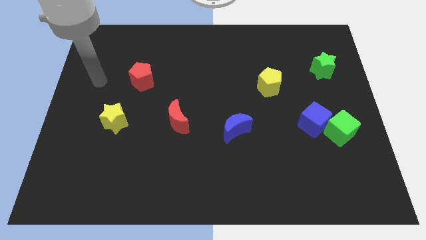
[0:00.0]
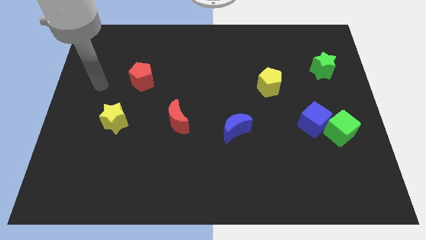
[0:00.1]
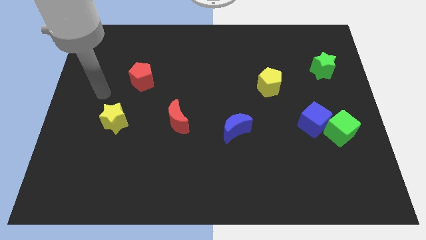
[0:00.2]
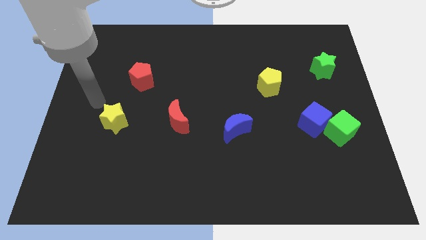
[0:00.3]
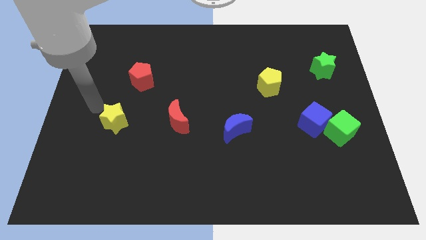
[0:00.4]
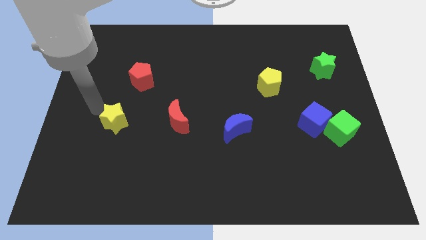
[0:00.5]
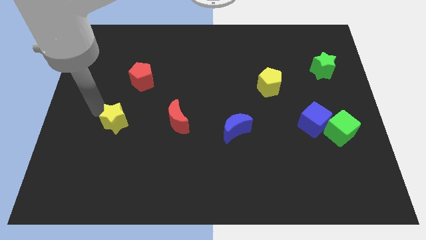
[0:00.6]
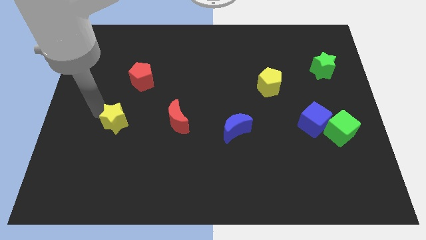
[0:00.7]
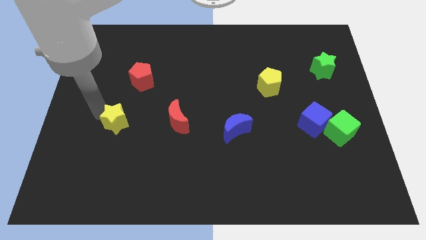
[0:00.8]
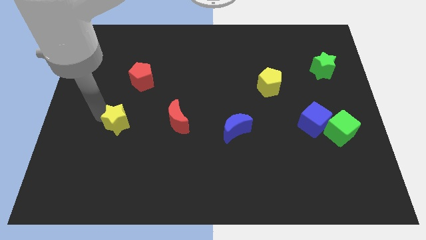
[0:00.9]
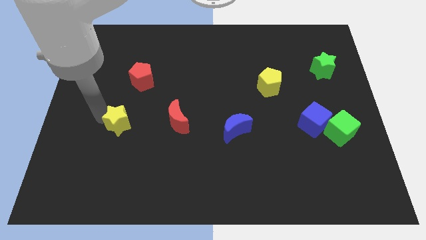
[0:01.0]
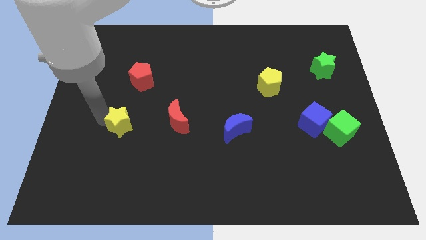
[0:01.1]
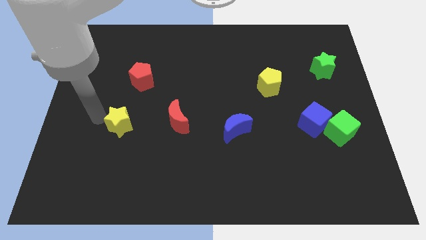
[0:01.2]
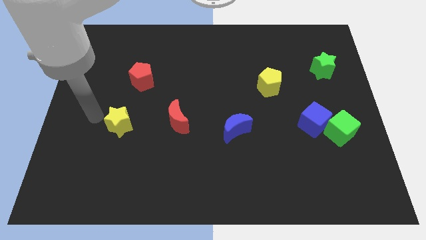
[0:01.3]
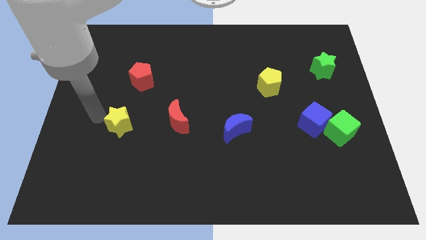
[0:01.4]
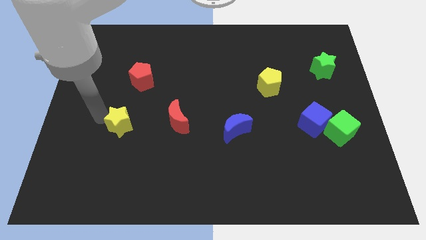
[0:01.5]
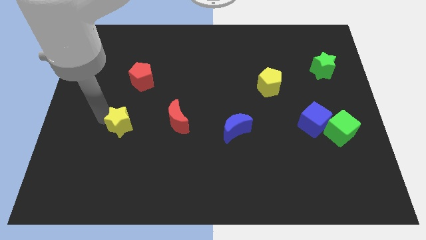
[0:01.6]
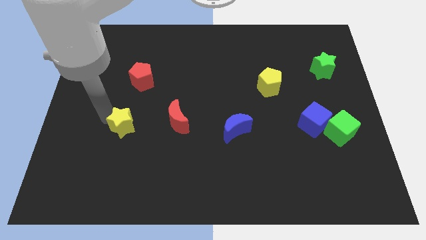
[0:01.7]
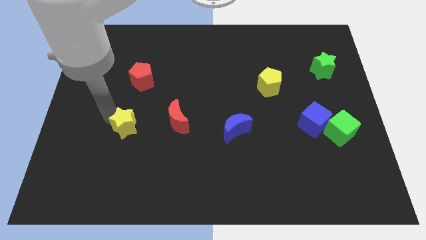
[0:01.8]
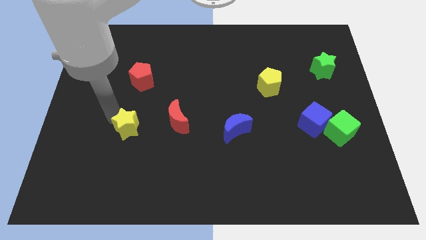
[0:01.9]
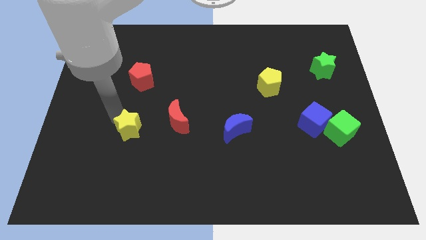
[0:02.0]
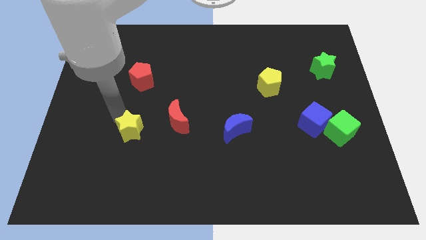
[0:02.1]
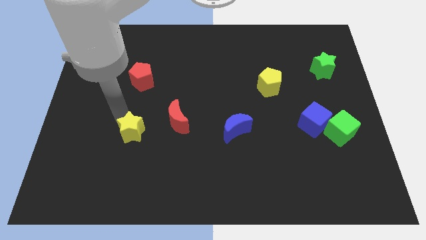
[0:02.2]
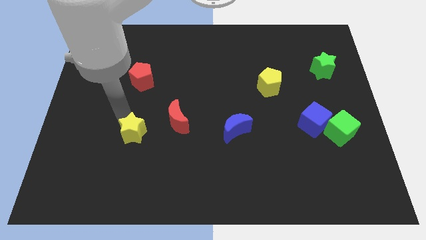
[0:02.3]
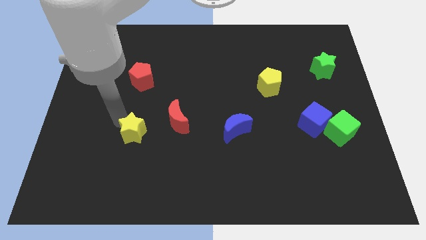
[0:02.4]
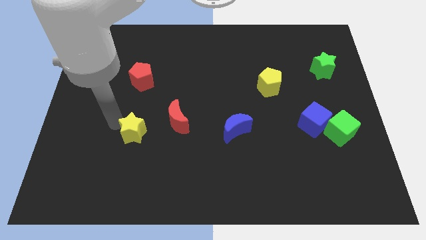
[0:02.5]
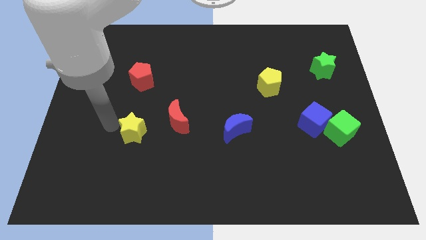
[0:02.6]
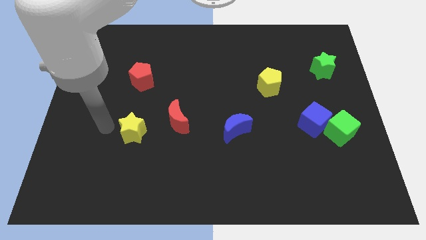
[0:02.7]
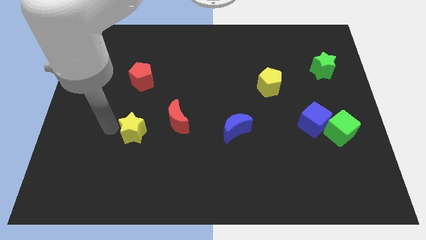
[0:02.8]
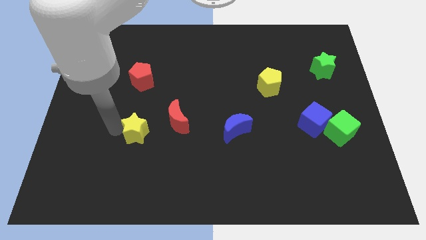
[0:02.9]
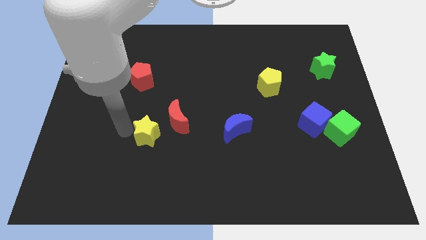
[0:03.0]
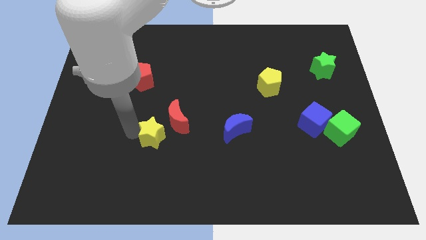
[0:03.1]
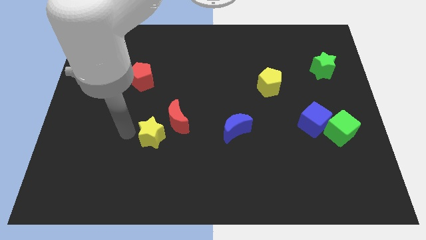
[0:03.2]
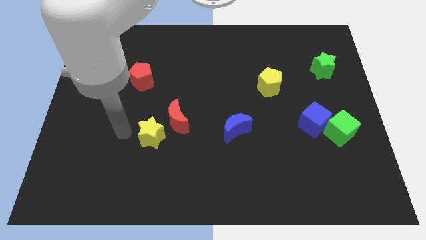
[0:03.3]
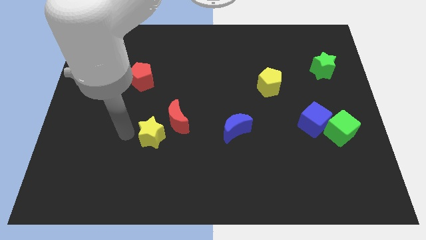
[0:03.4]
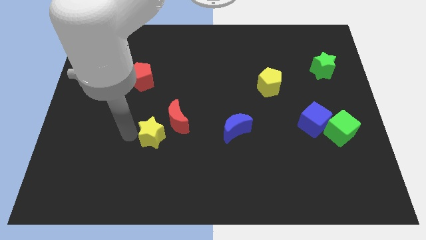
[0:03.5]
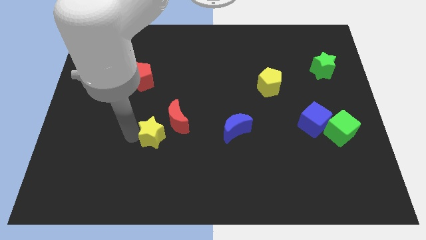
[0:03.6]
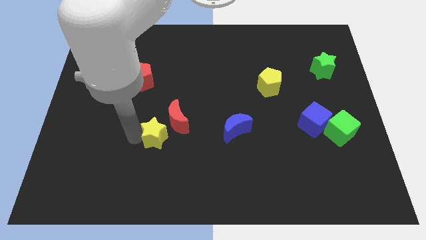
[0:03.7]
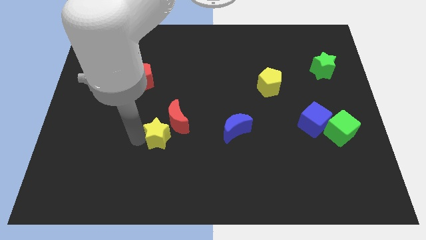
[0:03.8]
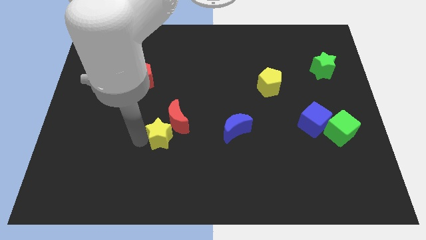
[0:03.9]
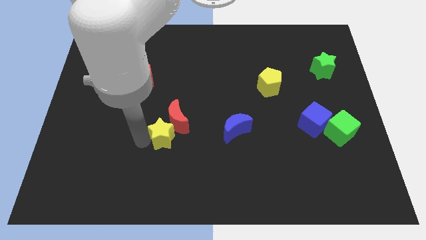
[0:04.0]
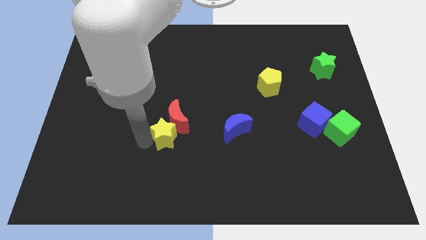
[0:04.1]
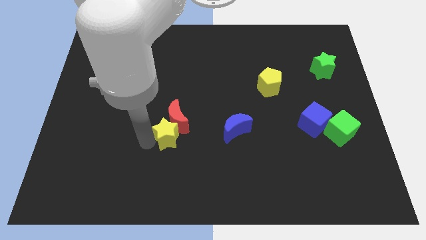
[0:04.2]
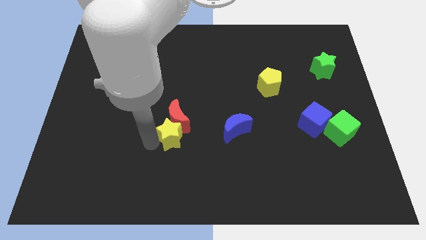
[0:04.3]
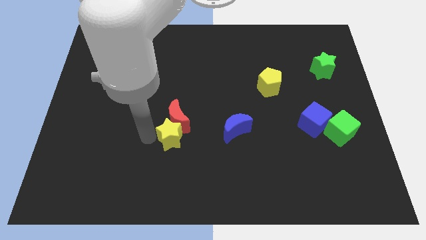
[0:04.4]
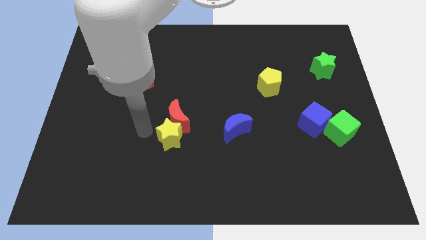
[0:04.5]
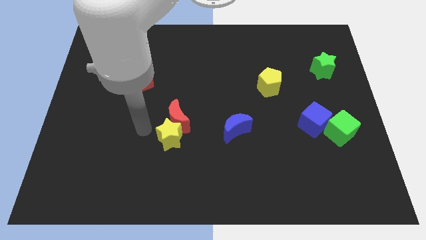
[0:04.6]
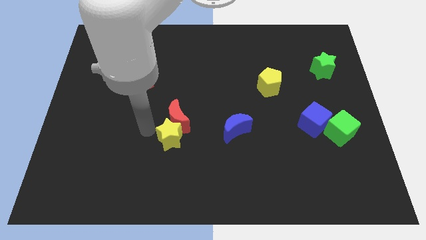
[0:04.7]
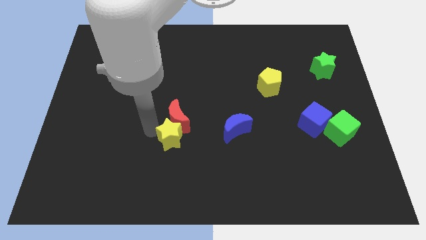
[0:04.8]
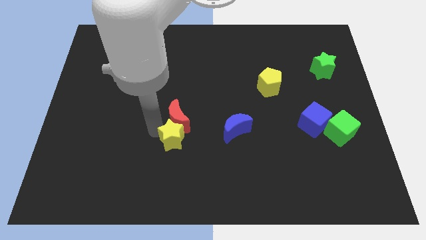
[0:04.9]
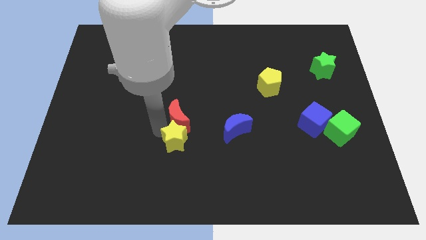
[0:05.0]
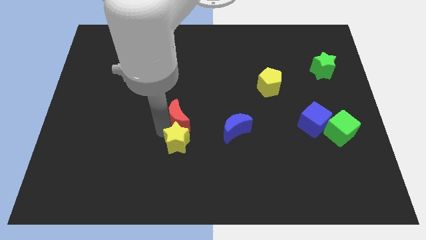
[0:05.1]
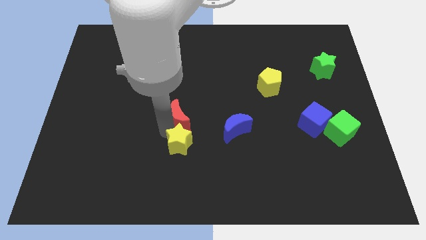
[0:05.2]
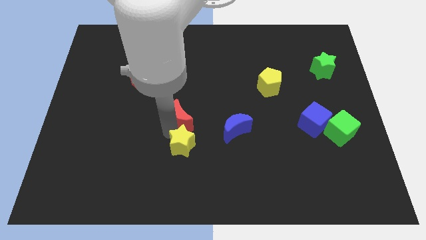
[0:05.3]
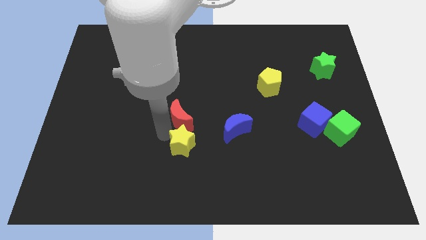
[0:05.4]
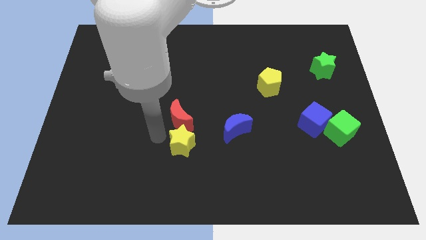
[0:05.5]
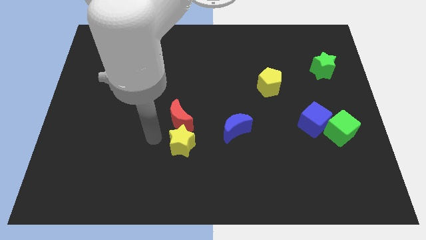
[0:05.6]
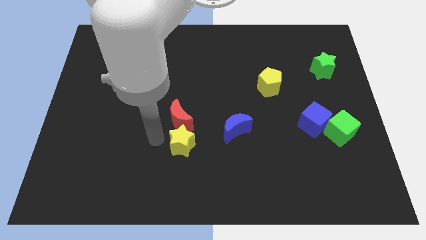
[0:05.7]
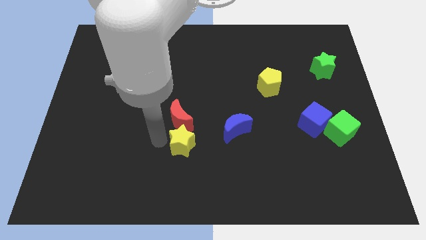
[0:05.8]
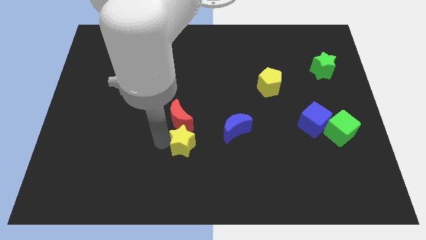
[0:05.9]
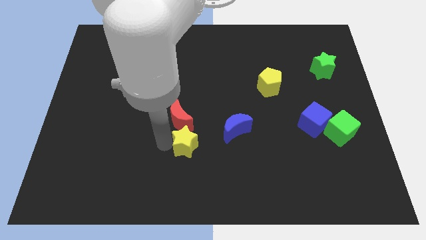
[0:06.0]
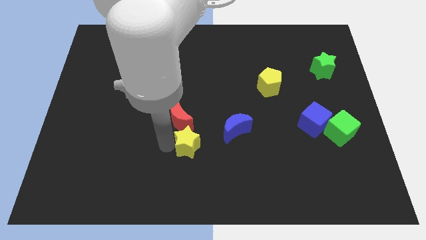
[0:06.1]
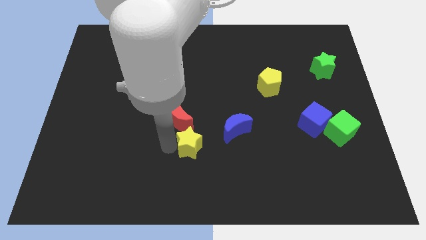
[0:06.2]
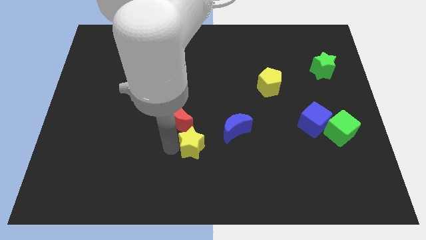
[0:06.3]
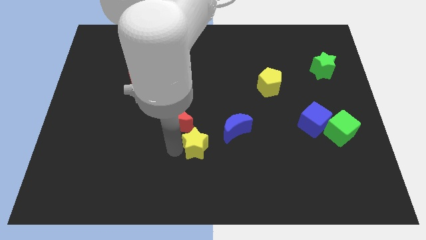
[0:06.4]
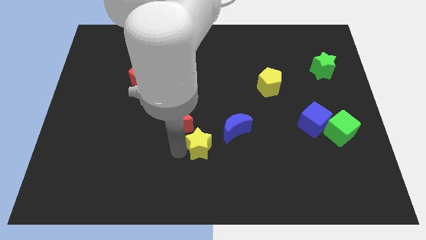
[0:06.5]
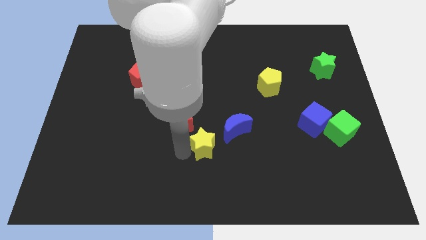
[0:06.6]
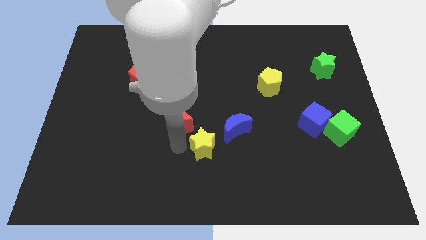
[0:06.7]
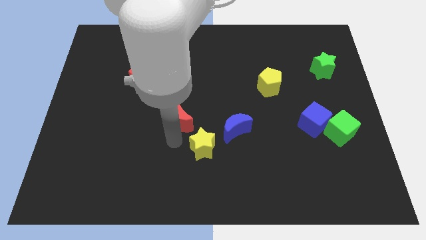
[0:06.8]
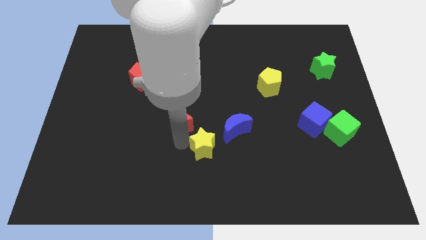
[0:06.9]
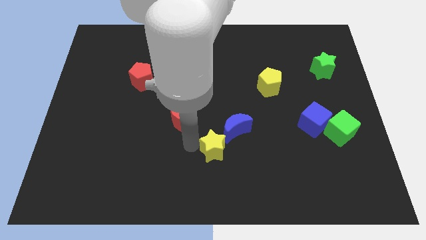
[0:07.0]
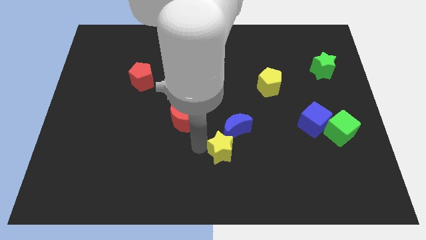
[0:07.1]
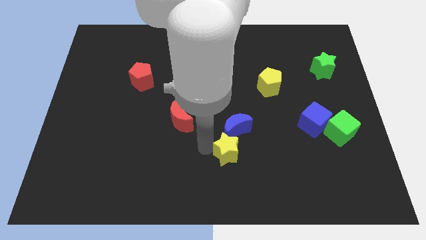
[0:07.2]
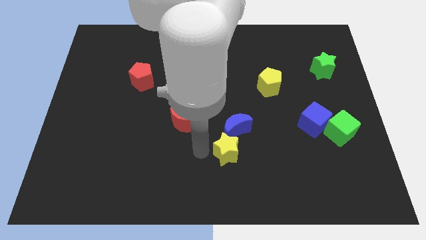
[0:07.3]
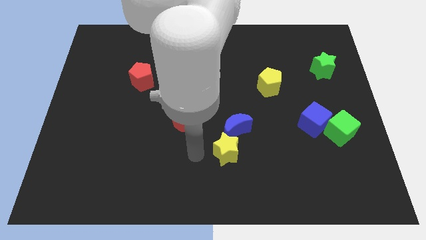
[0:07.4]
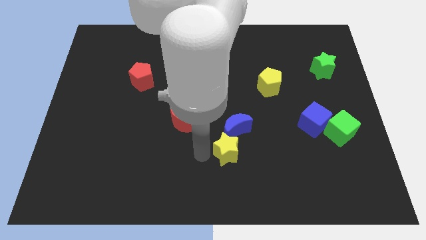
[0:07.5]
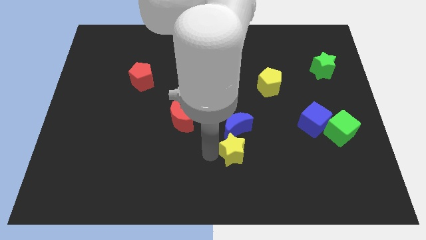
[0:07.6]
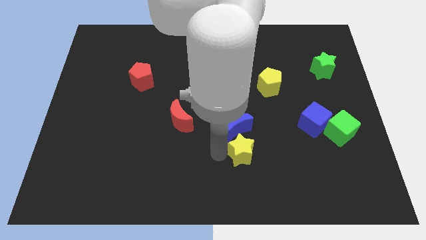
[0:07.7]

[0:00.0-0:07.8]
slide the yellow star to the bottom right side of the blue moon
